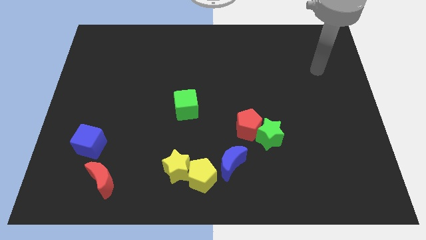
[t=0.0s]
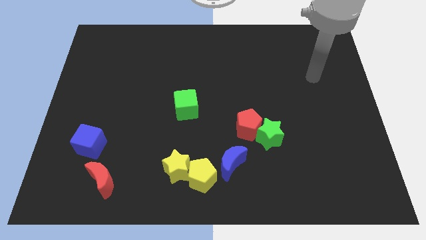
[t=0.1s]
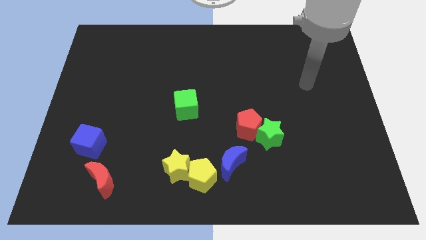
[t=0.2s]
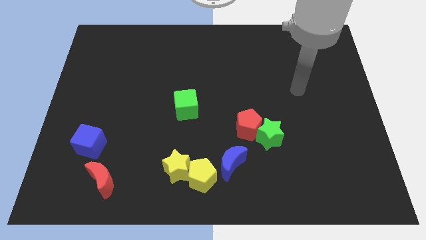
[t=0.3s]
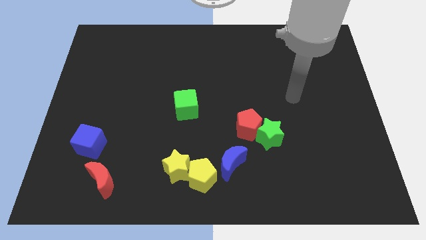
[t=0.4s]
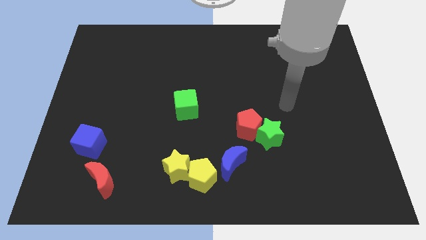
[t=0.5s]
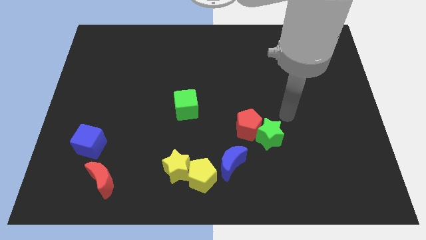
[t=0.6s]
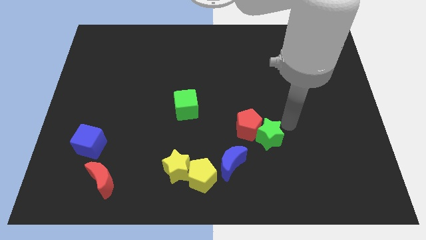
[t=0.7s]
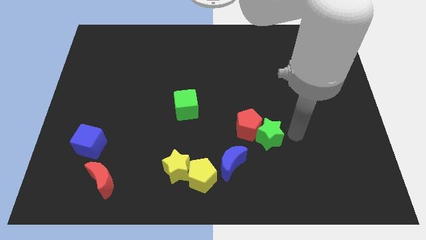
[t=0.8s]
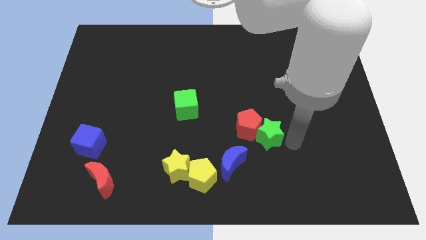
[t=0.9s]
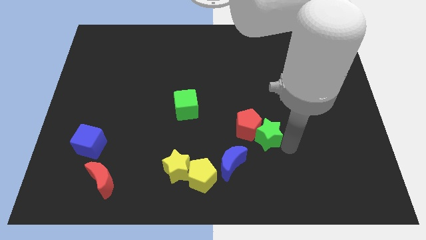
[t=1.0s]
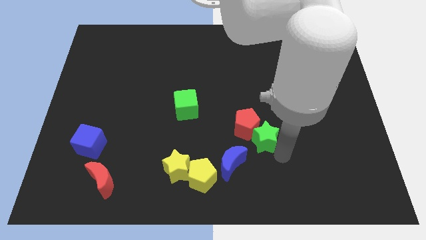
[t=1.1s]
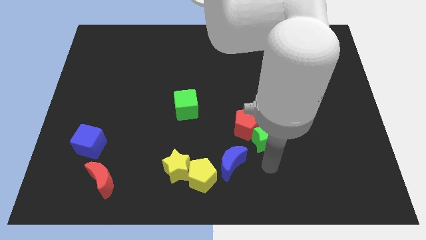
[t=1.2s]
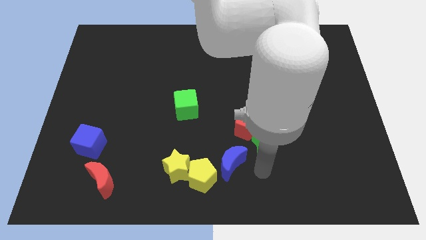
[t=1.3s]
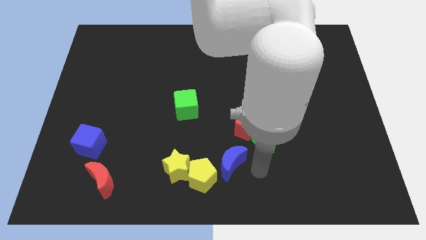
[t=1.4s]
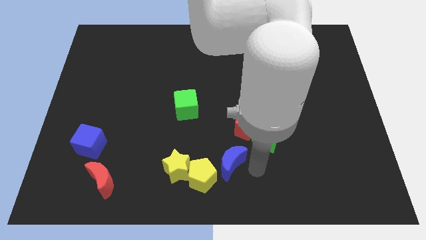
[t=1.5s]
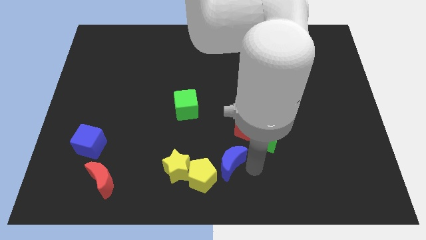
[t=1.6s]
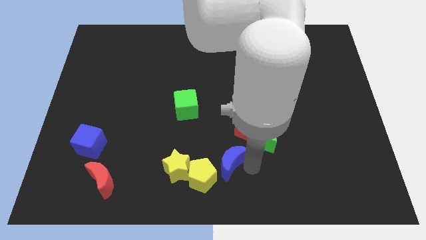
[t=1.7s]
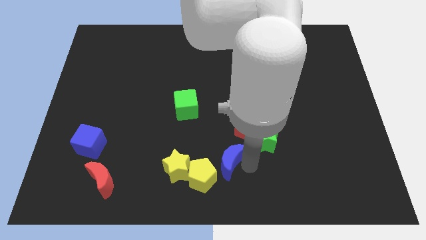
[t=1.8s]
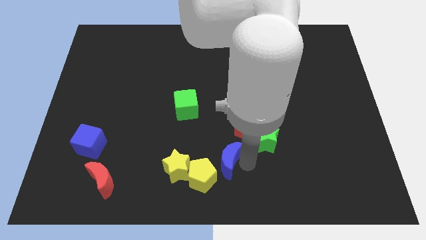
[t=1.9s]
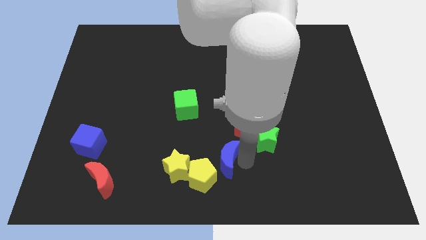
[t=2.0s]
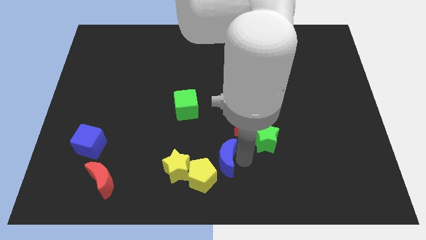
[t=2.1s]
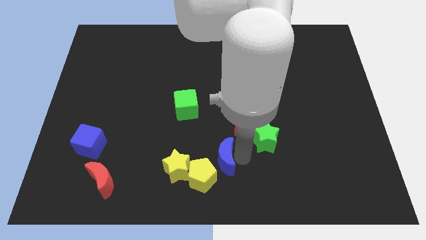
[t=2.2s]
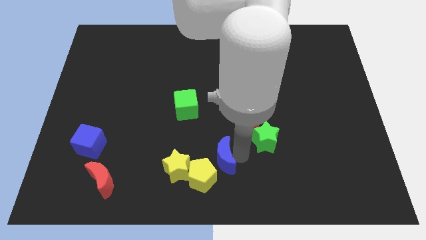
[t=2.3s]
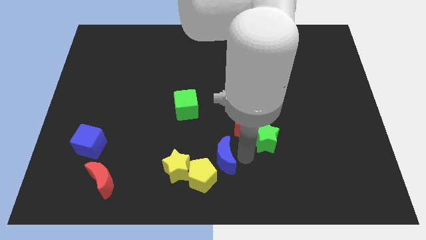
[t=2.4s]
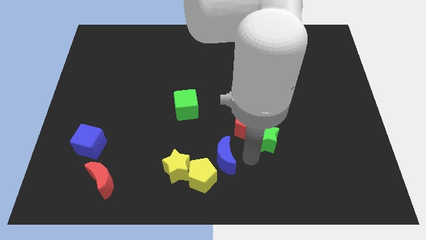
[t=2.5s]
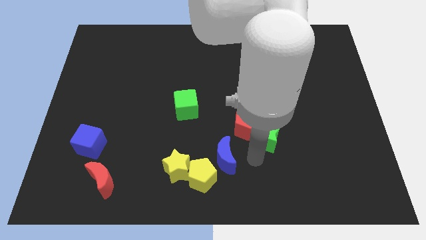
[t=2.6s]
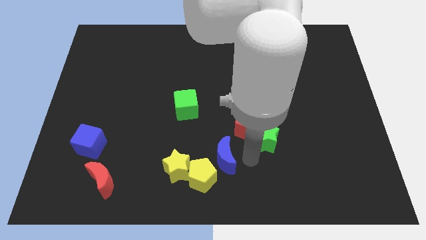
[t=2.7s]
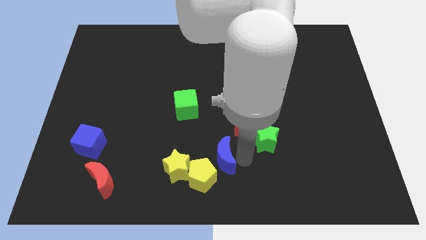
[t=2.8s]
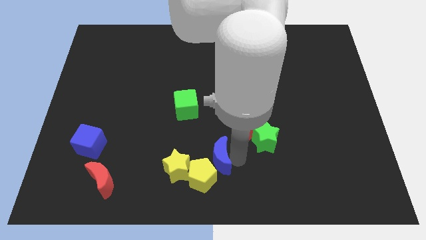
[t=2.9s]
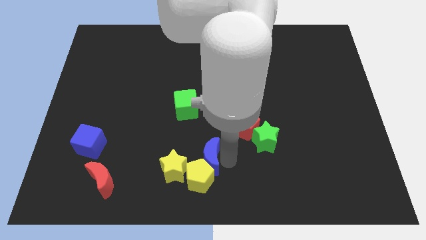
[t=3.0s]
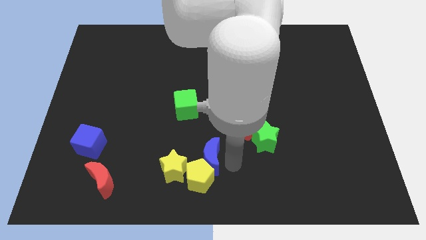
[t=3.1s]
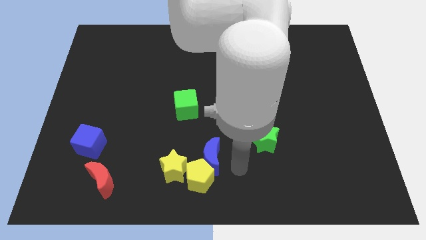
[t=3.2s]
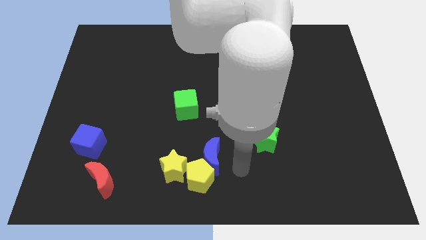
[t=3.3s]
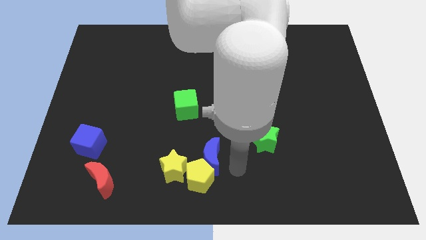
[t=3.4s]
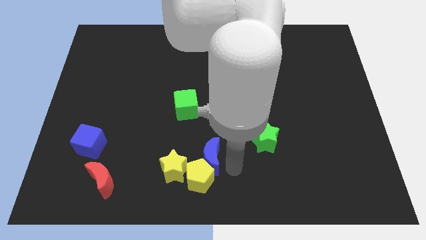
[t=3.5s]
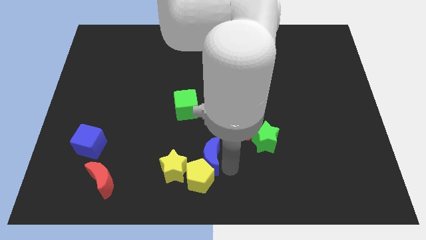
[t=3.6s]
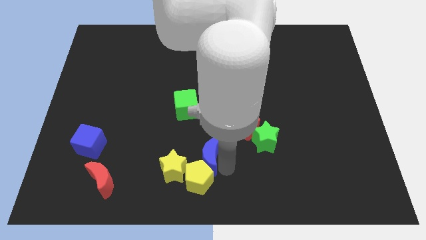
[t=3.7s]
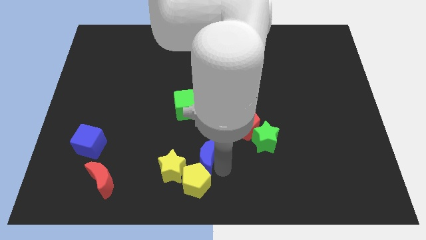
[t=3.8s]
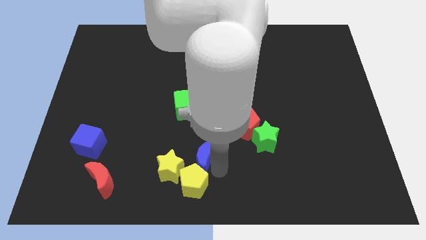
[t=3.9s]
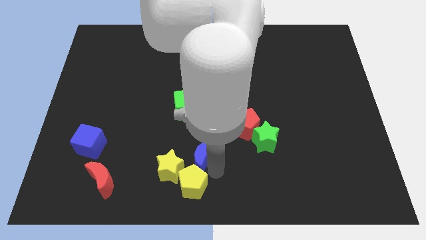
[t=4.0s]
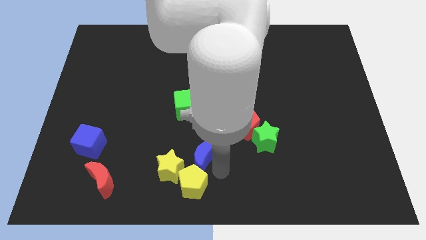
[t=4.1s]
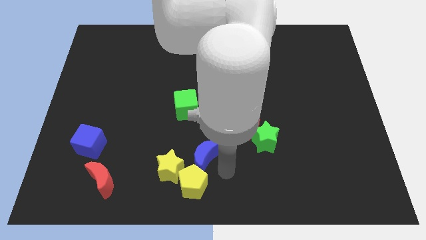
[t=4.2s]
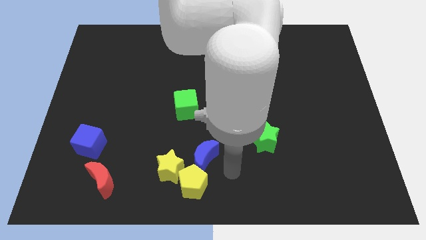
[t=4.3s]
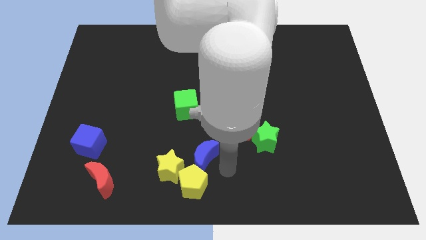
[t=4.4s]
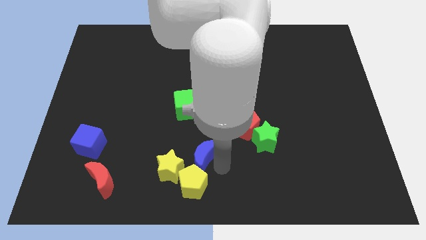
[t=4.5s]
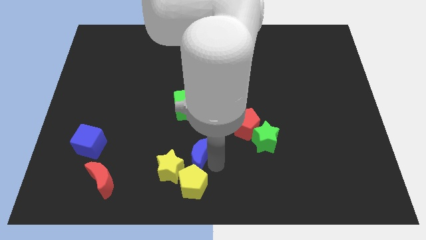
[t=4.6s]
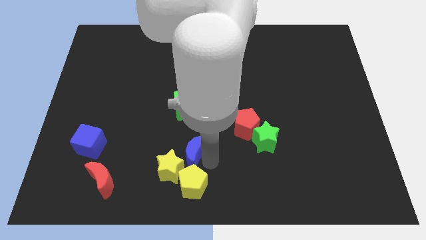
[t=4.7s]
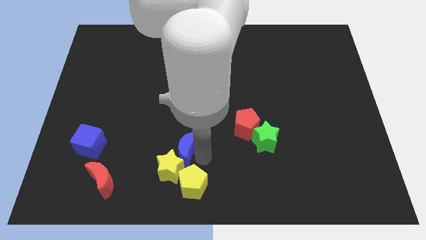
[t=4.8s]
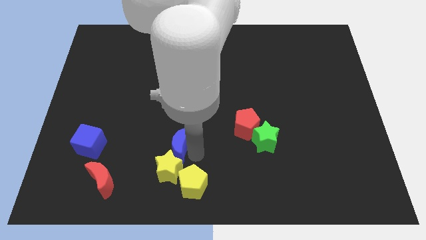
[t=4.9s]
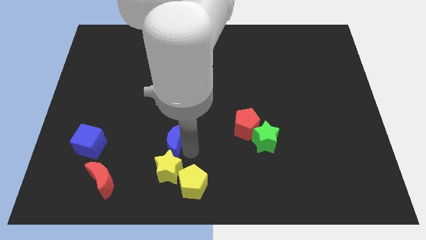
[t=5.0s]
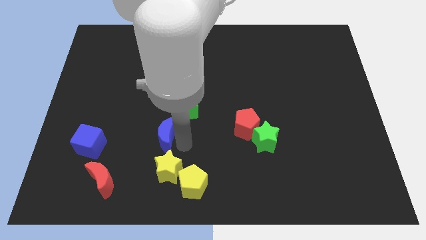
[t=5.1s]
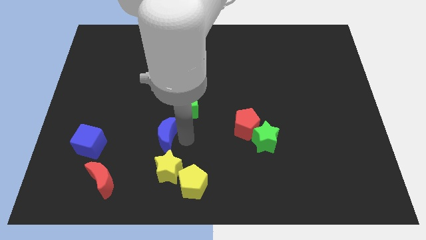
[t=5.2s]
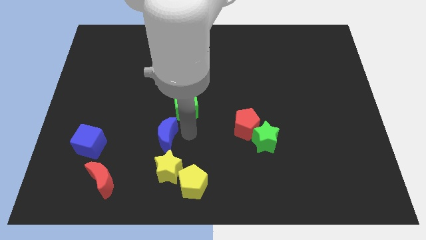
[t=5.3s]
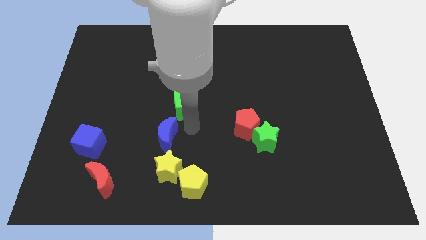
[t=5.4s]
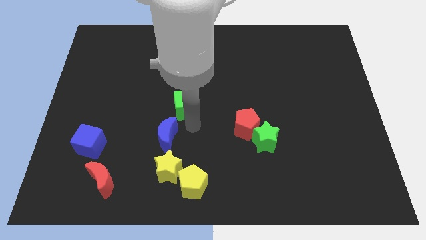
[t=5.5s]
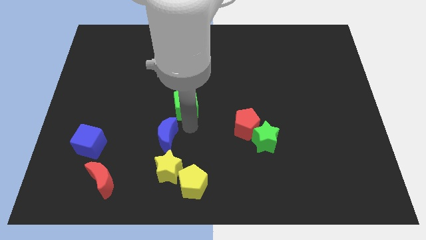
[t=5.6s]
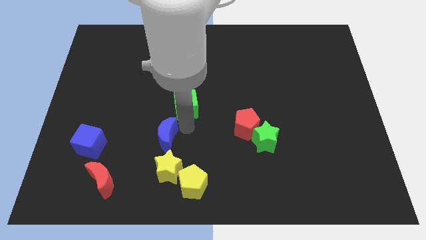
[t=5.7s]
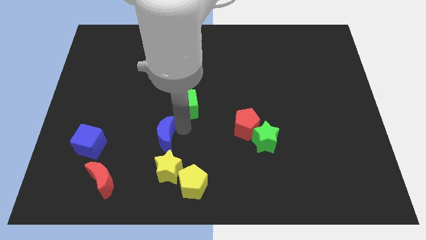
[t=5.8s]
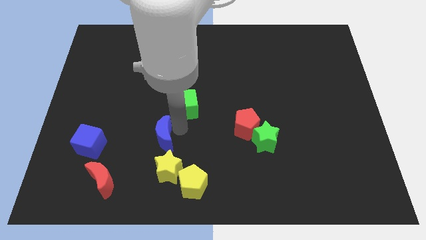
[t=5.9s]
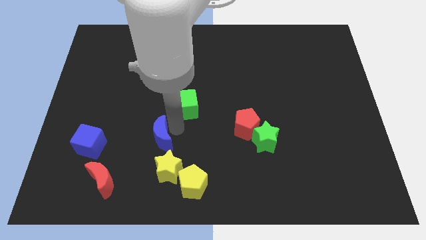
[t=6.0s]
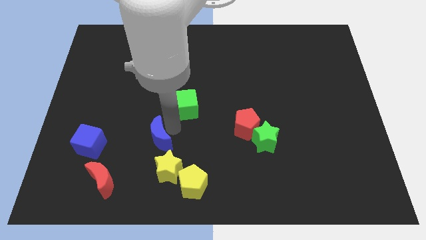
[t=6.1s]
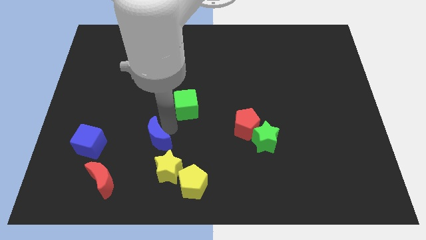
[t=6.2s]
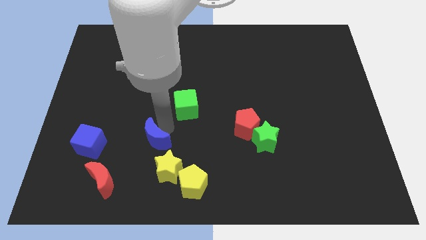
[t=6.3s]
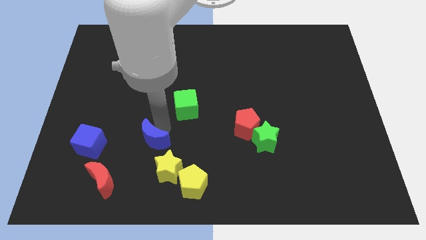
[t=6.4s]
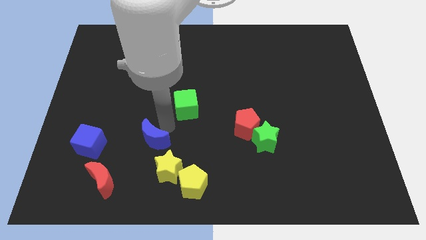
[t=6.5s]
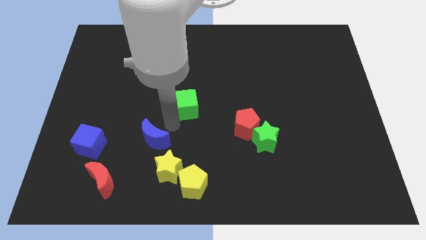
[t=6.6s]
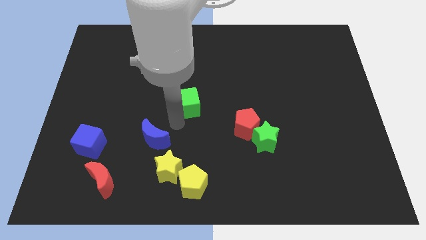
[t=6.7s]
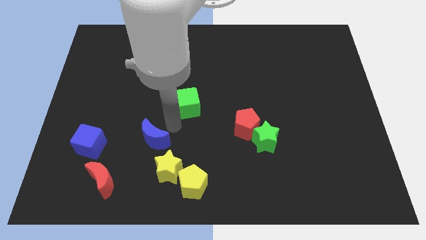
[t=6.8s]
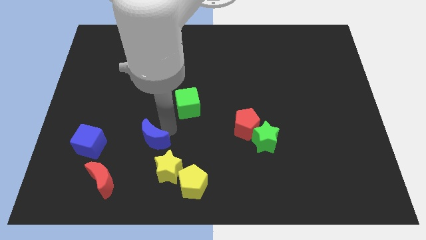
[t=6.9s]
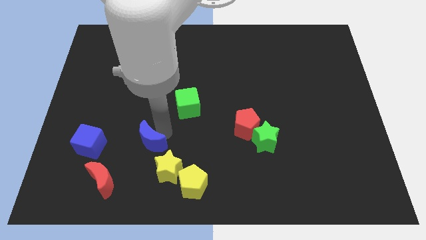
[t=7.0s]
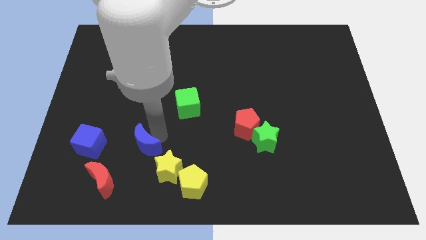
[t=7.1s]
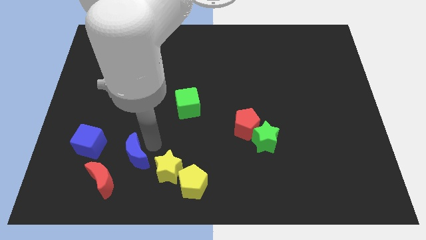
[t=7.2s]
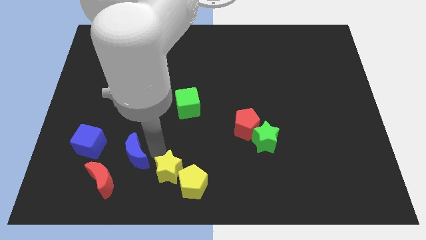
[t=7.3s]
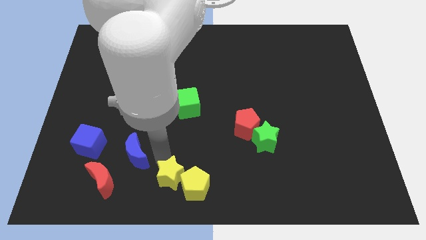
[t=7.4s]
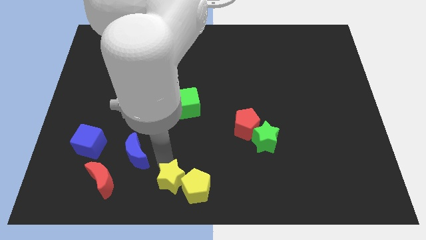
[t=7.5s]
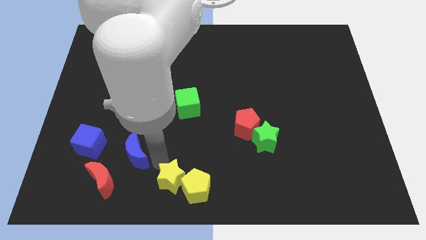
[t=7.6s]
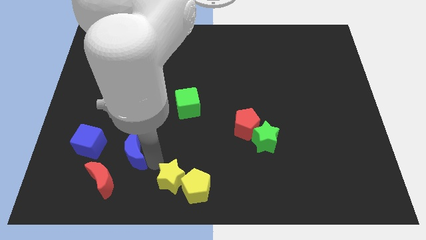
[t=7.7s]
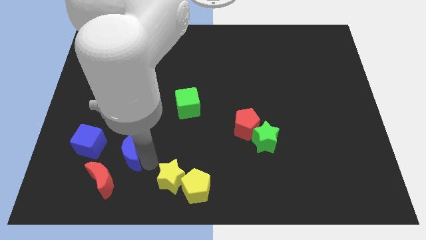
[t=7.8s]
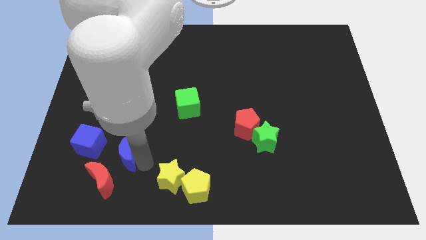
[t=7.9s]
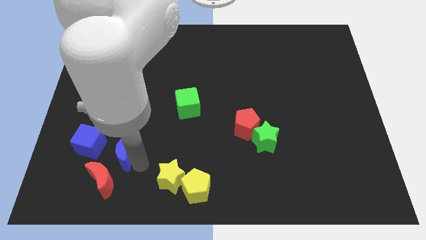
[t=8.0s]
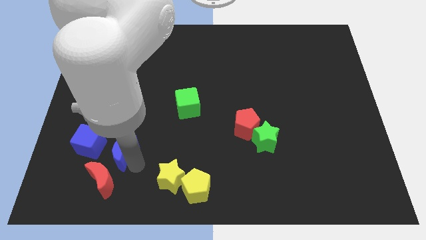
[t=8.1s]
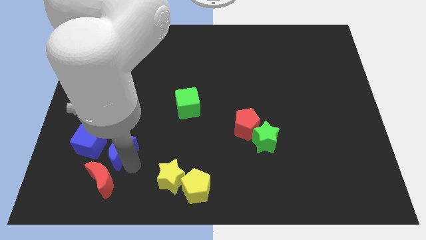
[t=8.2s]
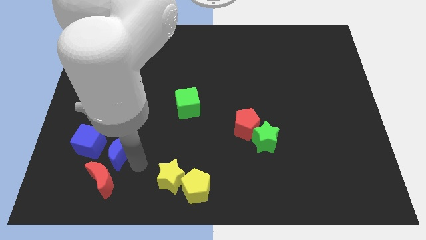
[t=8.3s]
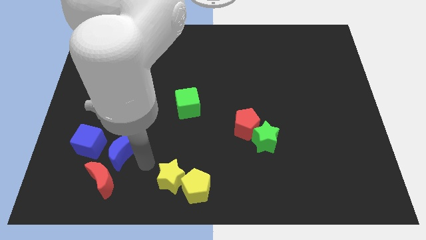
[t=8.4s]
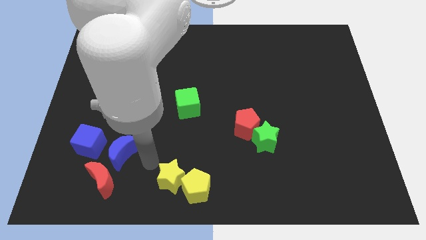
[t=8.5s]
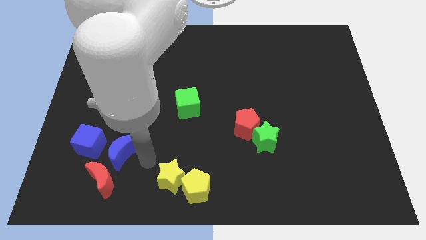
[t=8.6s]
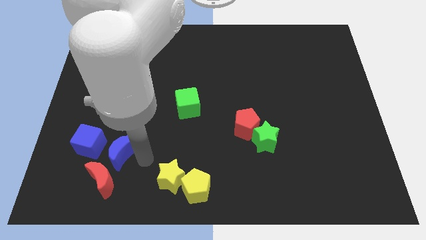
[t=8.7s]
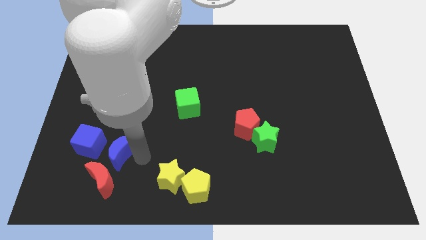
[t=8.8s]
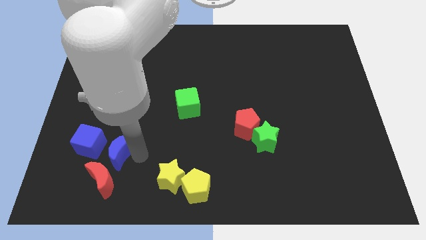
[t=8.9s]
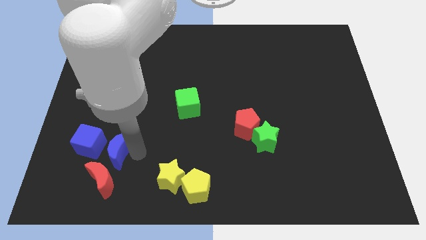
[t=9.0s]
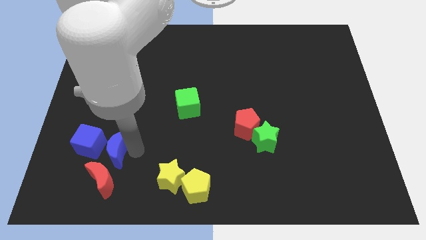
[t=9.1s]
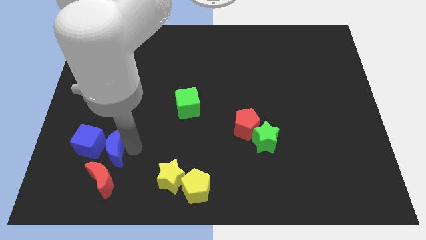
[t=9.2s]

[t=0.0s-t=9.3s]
slide the blue moon to the blue cube
